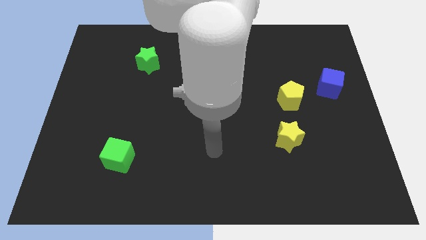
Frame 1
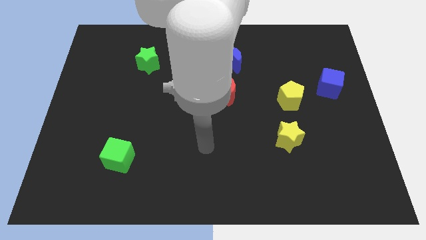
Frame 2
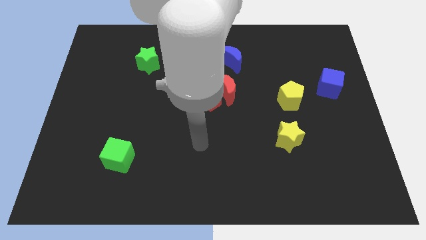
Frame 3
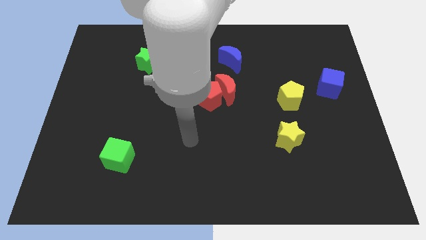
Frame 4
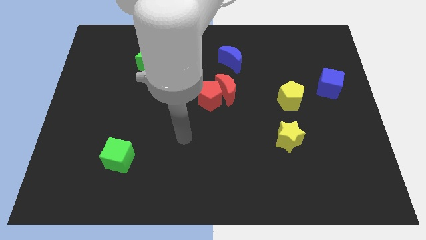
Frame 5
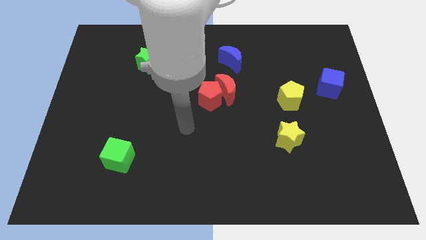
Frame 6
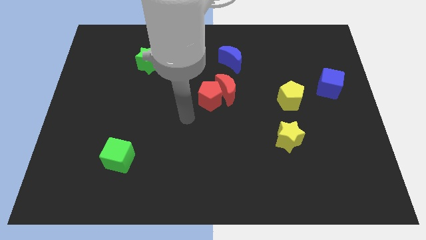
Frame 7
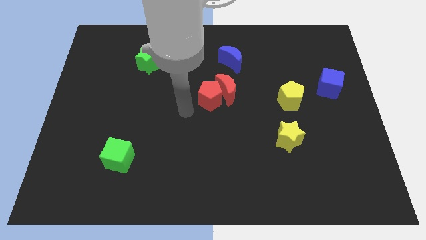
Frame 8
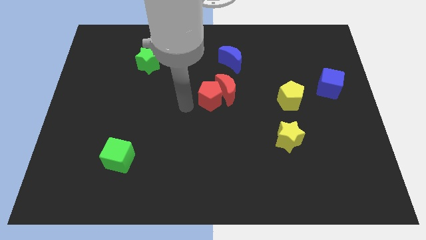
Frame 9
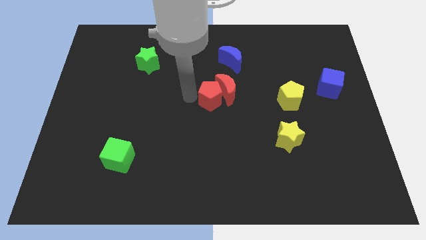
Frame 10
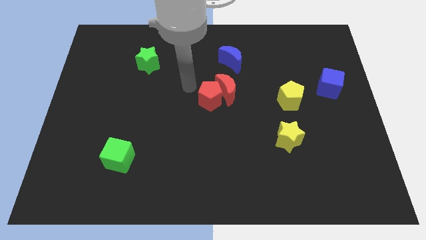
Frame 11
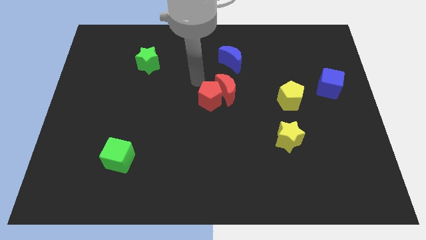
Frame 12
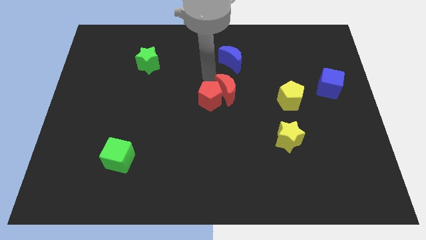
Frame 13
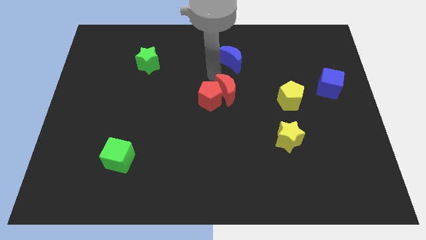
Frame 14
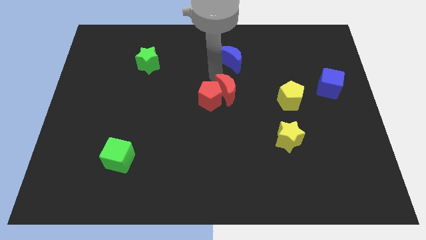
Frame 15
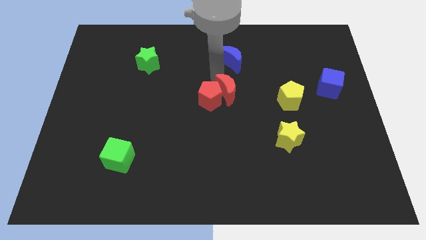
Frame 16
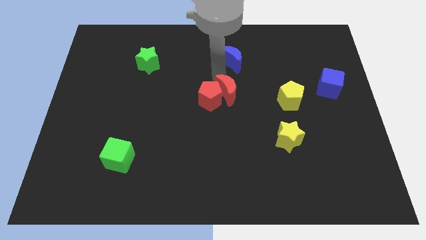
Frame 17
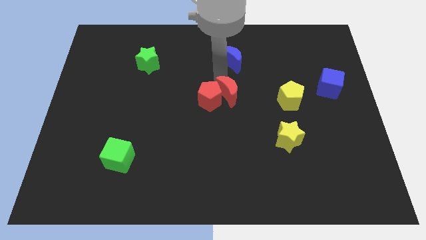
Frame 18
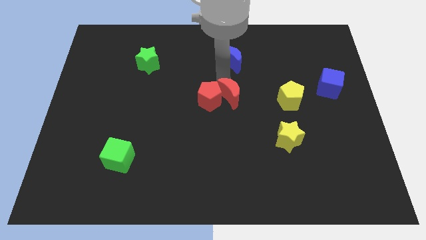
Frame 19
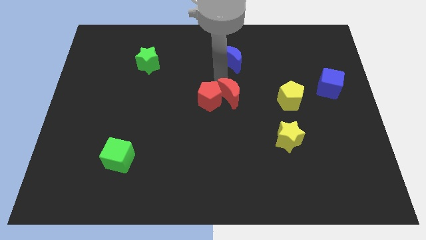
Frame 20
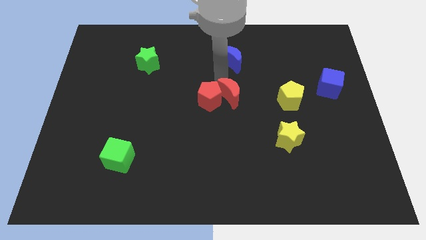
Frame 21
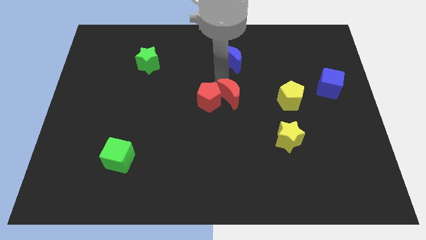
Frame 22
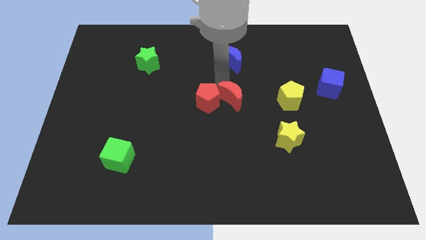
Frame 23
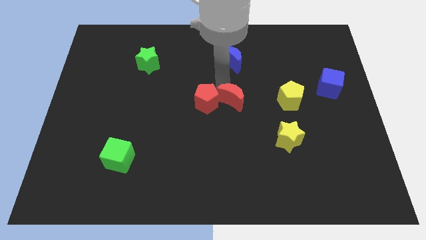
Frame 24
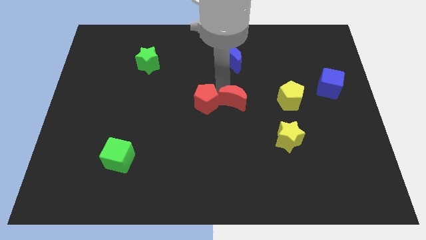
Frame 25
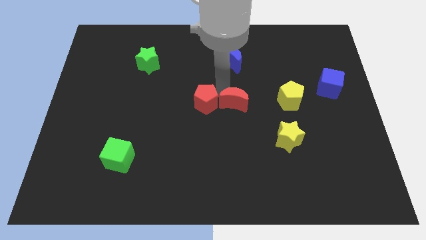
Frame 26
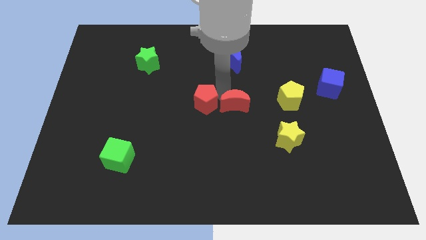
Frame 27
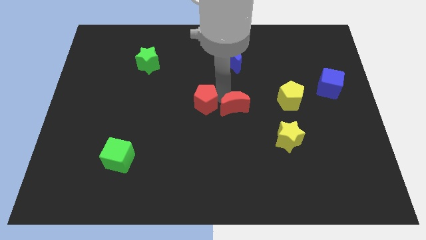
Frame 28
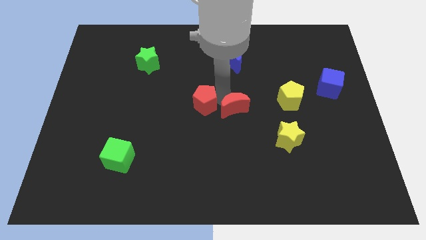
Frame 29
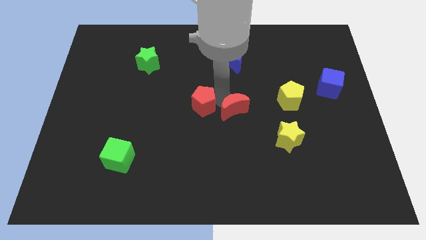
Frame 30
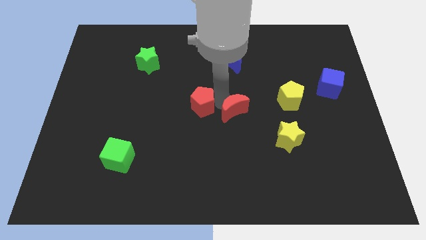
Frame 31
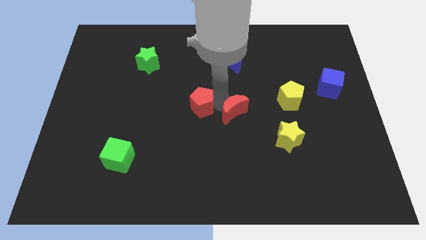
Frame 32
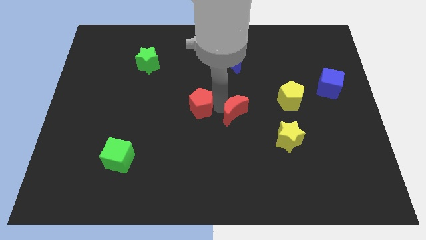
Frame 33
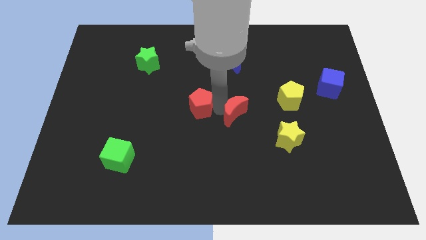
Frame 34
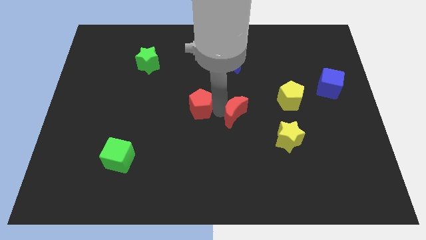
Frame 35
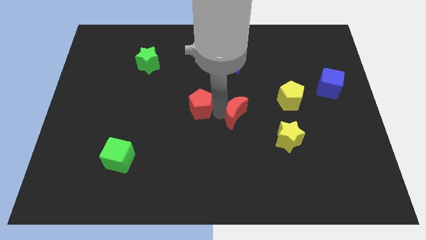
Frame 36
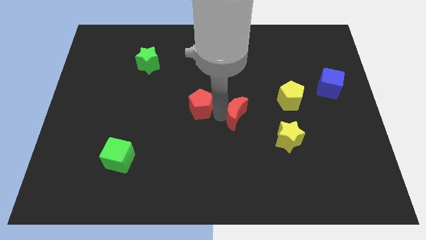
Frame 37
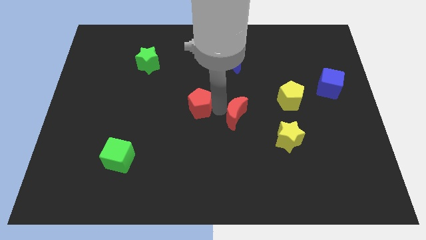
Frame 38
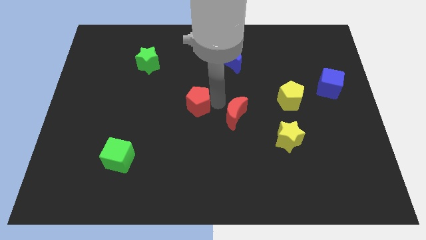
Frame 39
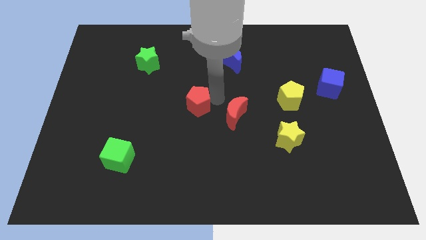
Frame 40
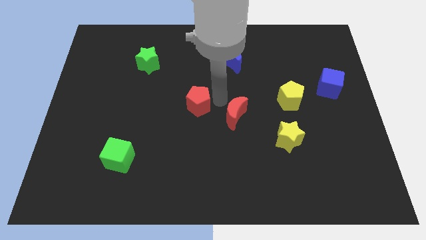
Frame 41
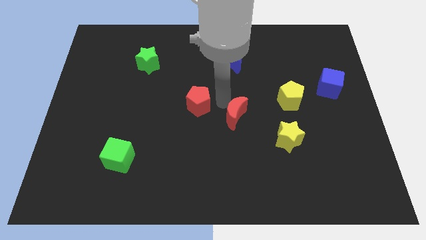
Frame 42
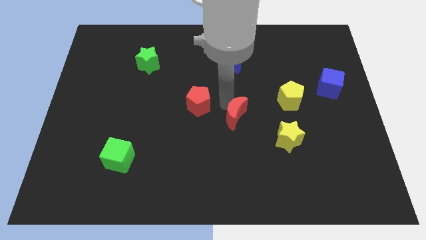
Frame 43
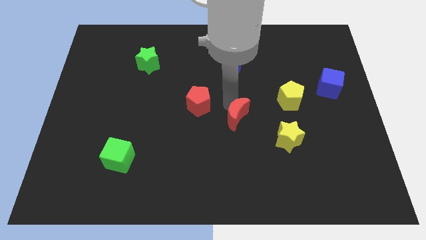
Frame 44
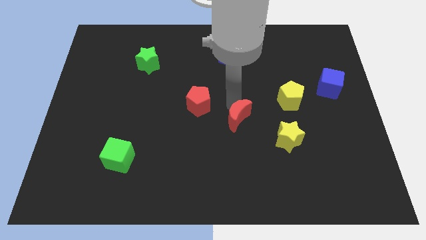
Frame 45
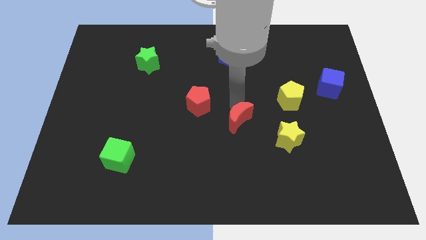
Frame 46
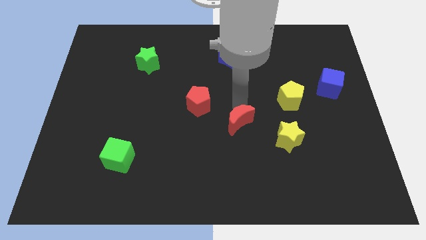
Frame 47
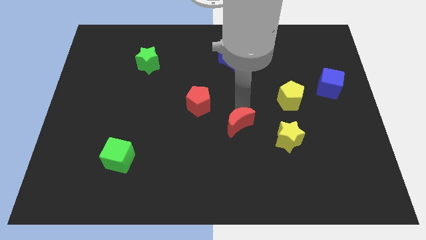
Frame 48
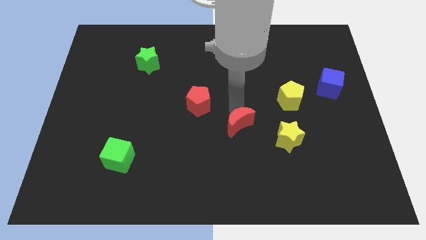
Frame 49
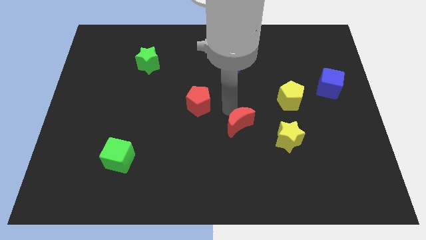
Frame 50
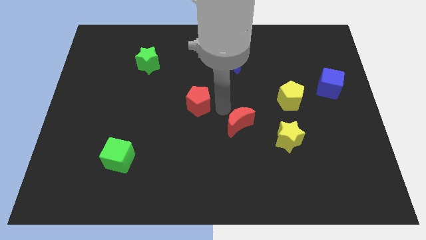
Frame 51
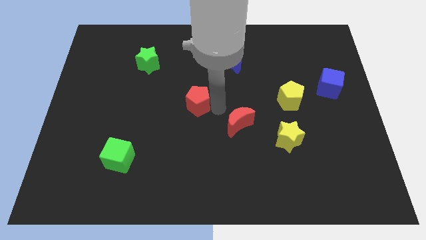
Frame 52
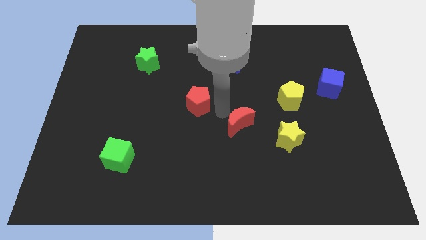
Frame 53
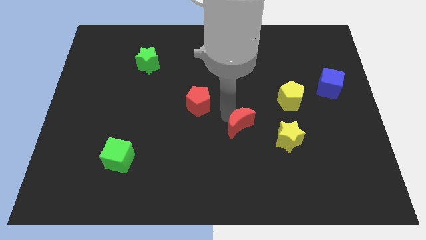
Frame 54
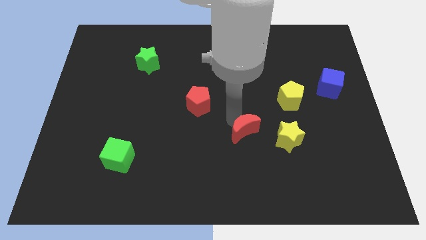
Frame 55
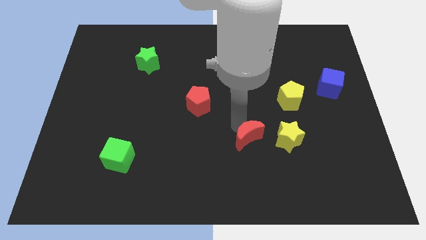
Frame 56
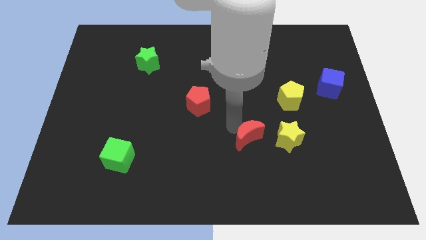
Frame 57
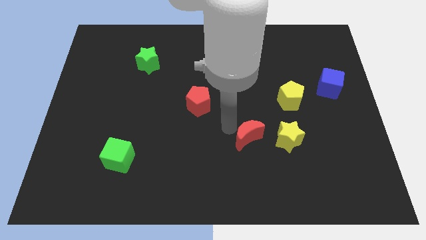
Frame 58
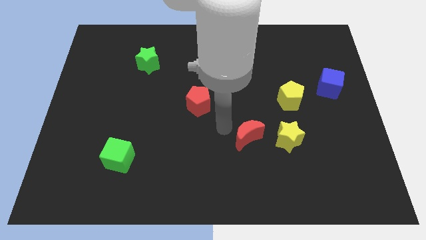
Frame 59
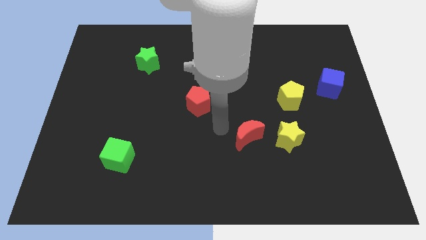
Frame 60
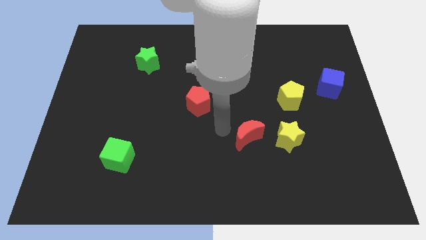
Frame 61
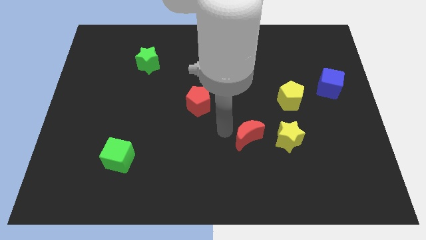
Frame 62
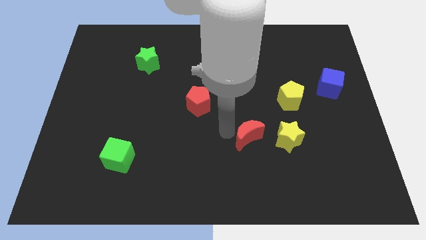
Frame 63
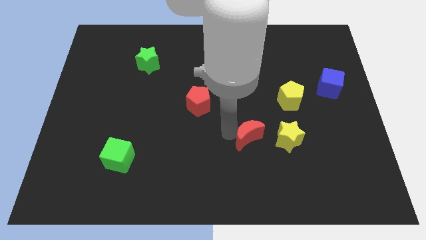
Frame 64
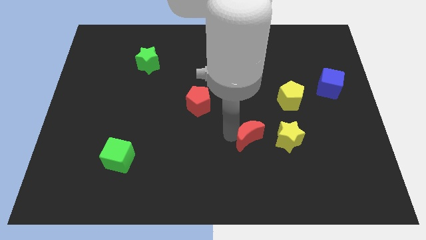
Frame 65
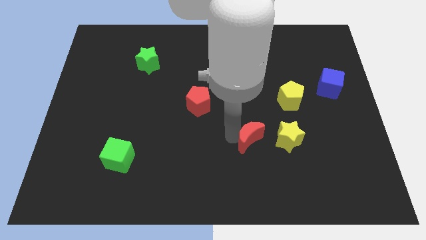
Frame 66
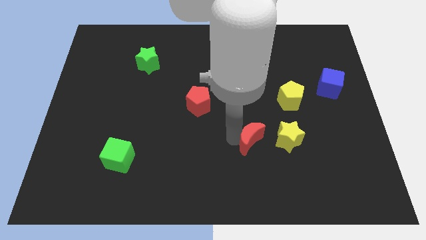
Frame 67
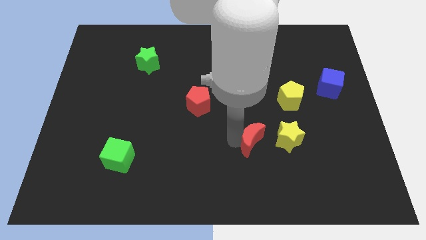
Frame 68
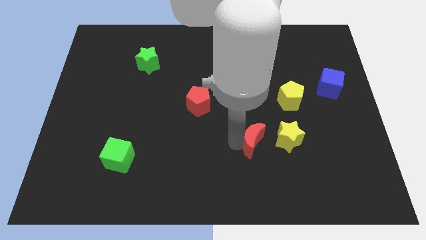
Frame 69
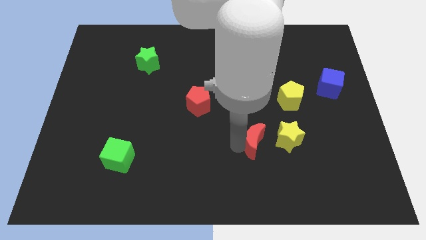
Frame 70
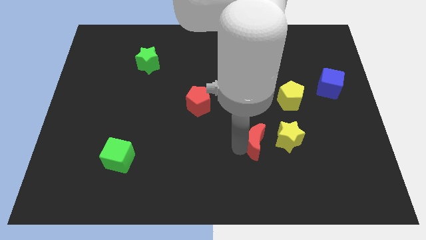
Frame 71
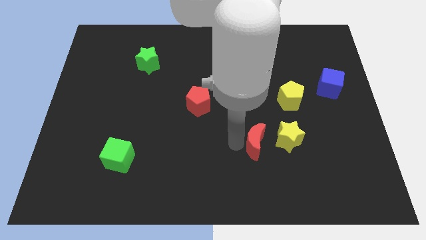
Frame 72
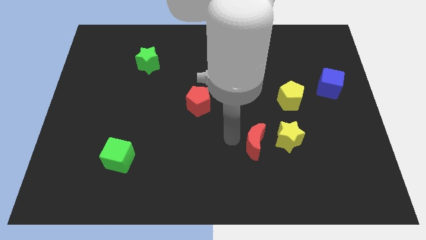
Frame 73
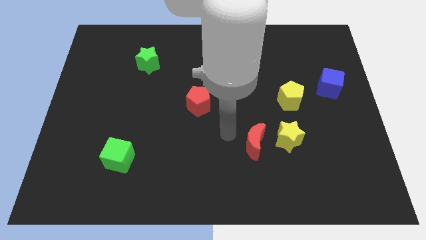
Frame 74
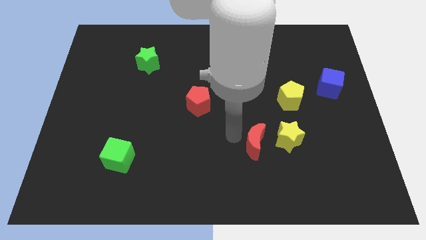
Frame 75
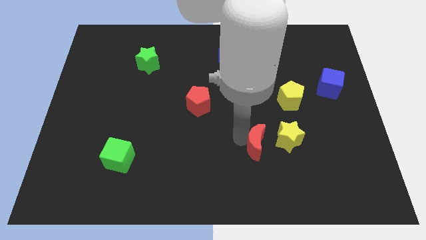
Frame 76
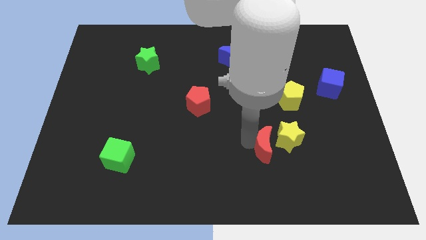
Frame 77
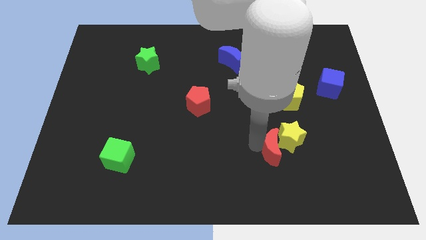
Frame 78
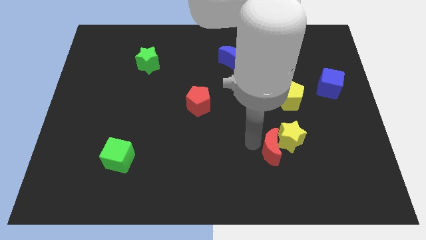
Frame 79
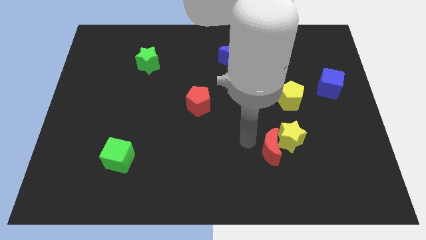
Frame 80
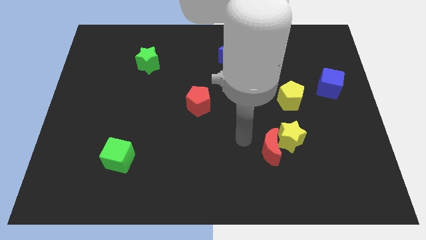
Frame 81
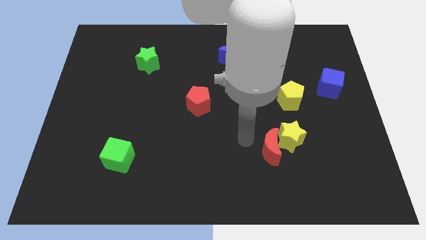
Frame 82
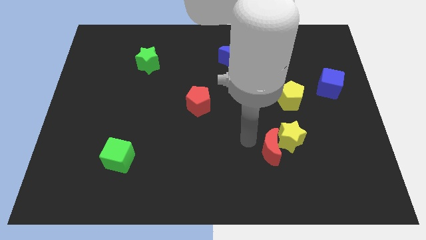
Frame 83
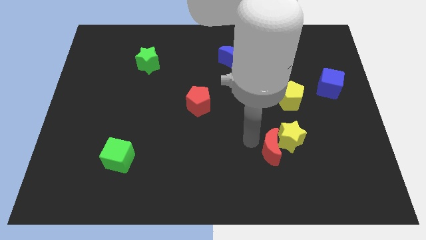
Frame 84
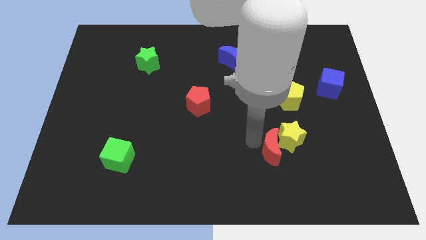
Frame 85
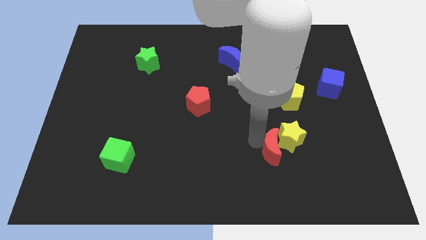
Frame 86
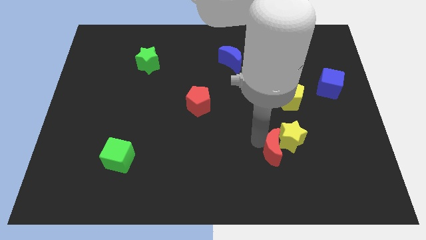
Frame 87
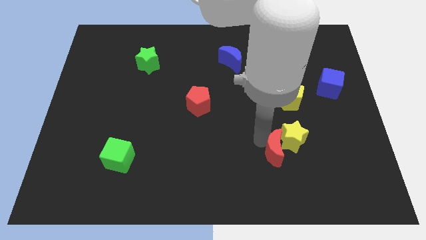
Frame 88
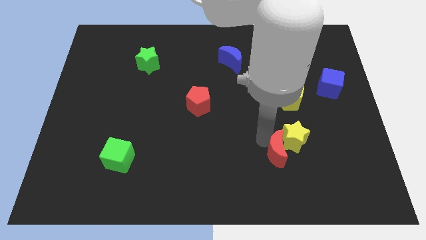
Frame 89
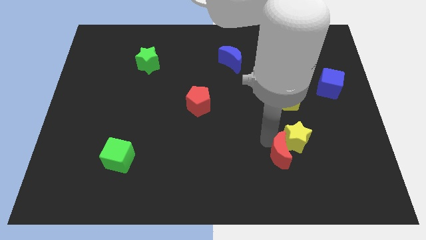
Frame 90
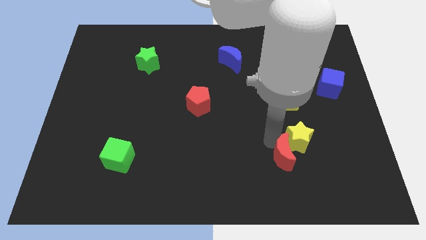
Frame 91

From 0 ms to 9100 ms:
slide the red moon downwards and then to the right
